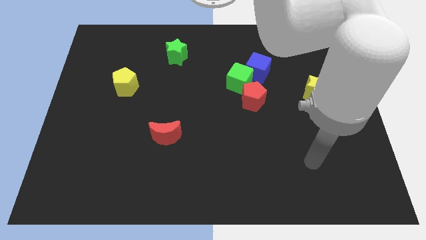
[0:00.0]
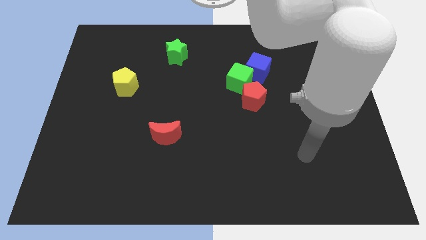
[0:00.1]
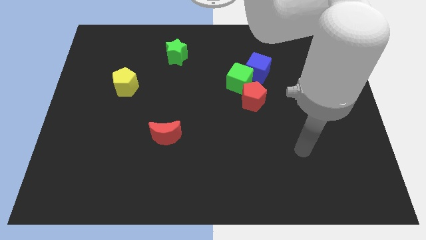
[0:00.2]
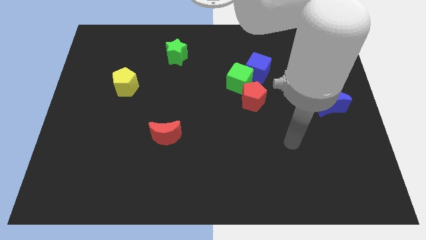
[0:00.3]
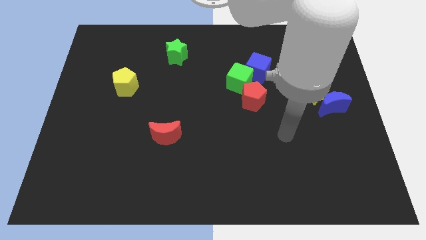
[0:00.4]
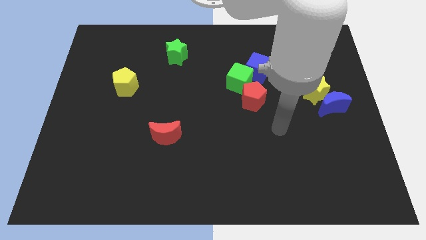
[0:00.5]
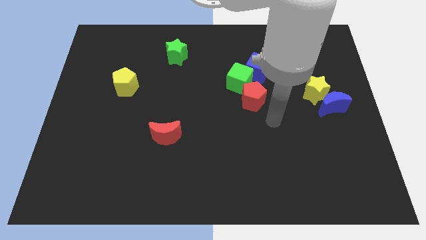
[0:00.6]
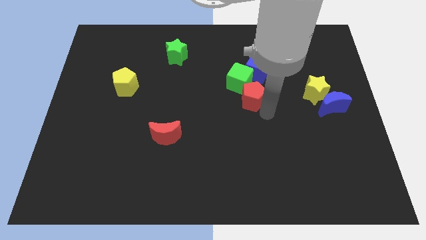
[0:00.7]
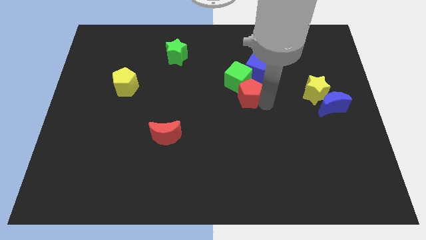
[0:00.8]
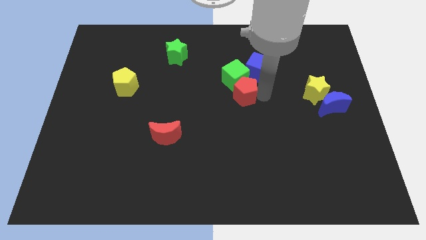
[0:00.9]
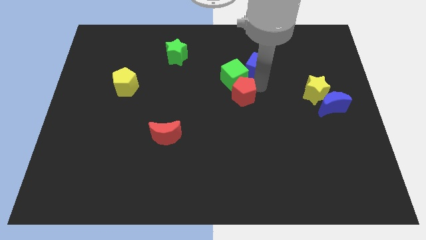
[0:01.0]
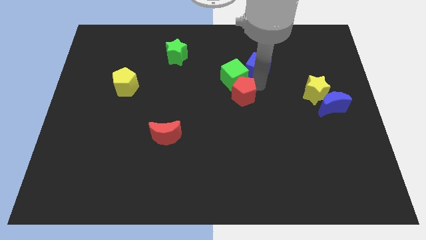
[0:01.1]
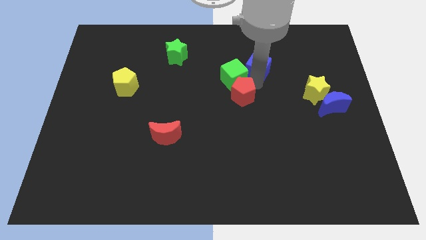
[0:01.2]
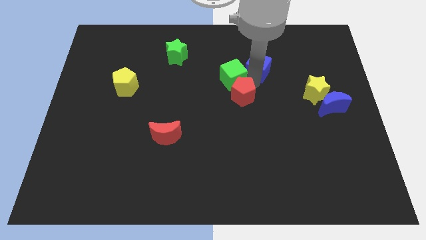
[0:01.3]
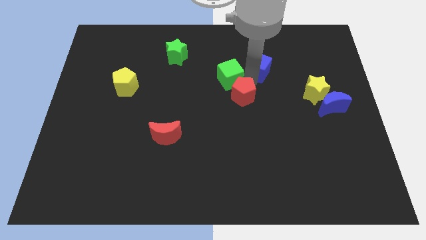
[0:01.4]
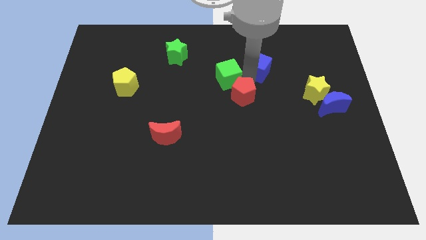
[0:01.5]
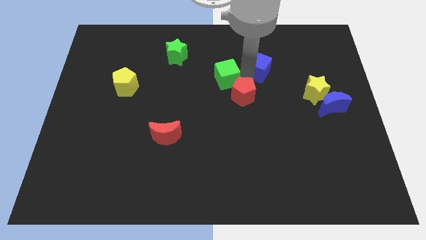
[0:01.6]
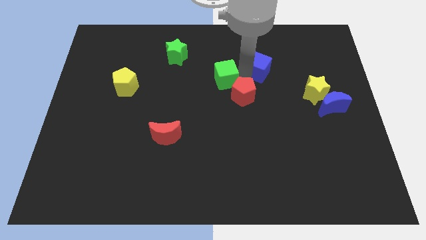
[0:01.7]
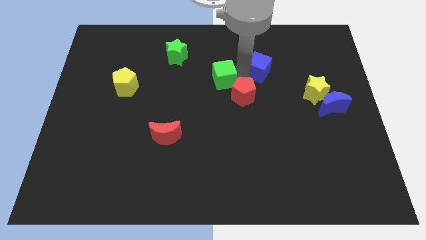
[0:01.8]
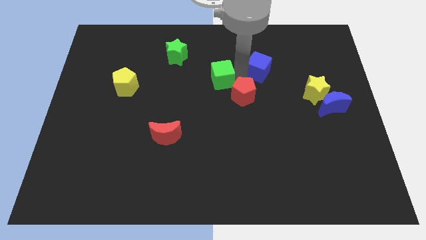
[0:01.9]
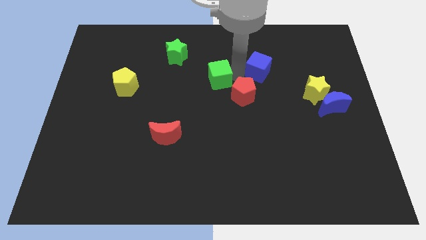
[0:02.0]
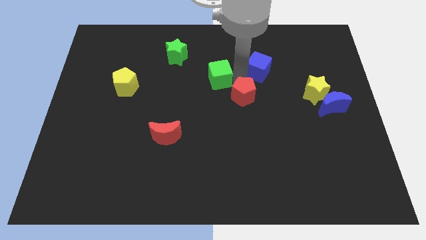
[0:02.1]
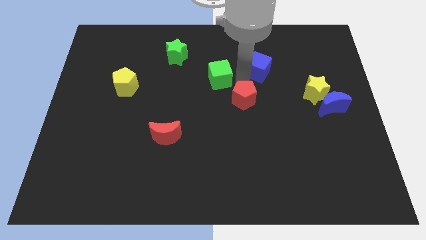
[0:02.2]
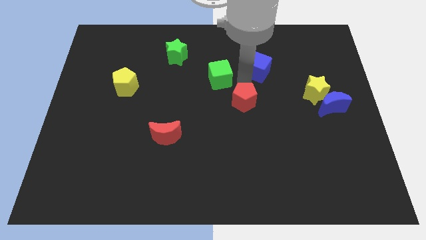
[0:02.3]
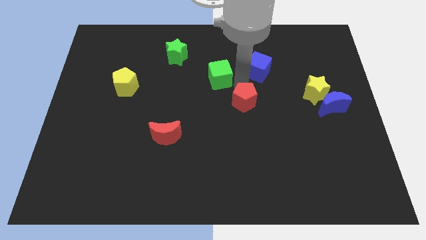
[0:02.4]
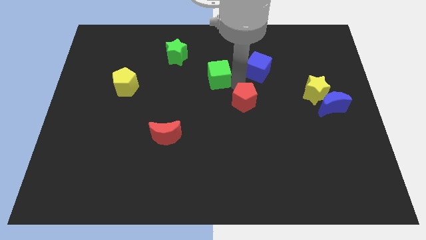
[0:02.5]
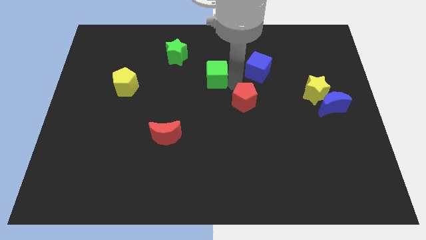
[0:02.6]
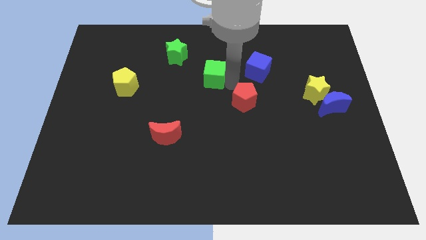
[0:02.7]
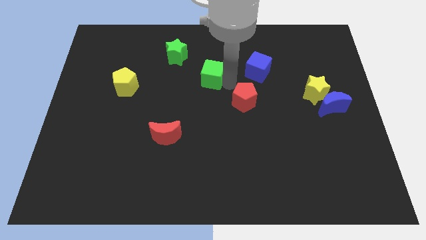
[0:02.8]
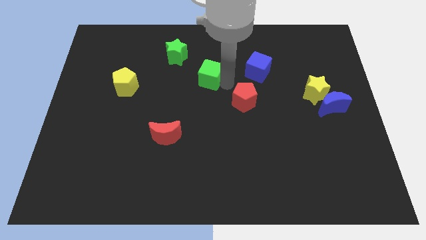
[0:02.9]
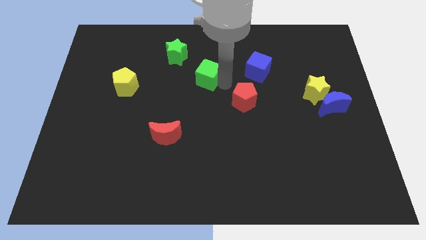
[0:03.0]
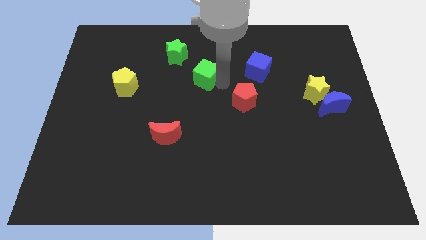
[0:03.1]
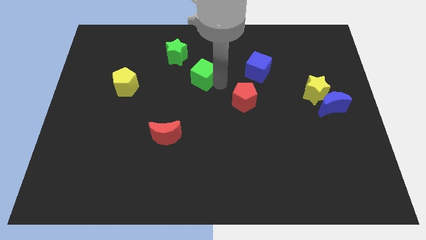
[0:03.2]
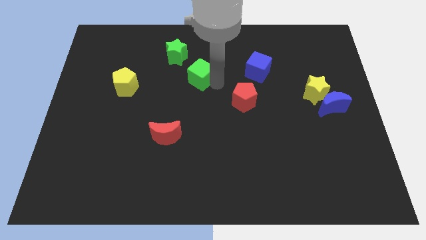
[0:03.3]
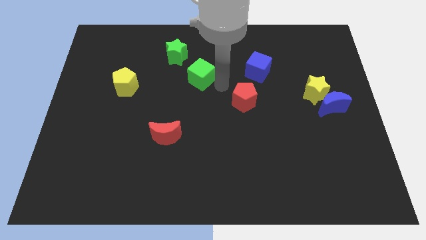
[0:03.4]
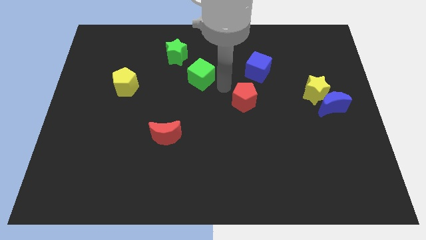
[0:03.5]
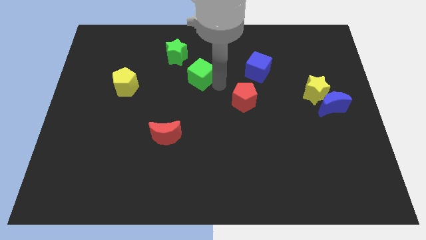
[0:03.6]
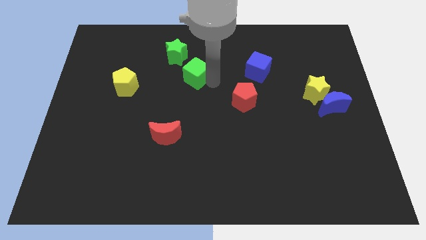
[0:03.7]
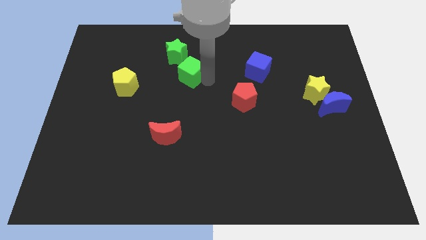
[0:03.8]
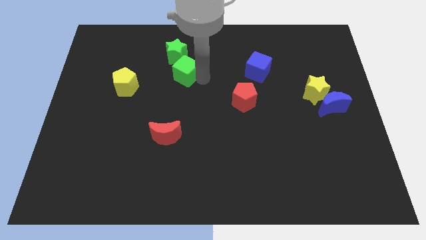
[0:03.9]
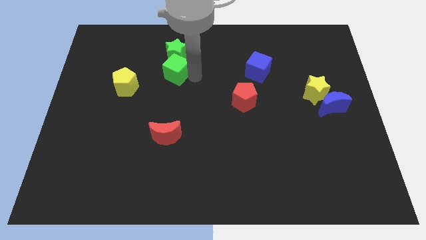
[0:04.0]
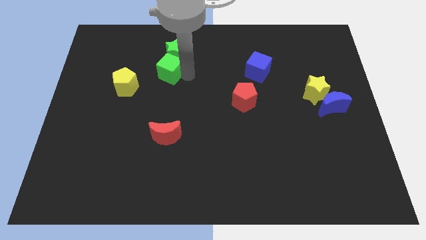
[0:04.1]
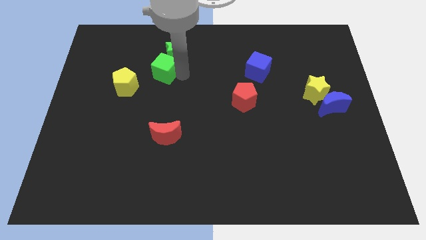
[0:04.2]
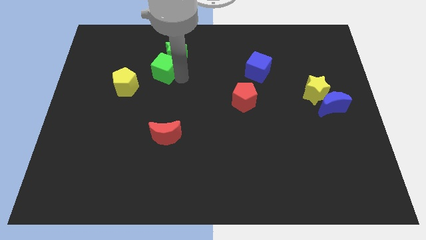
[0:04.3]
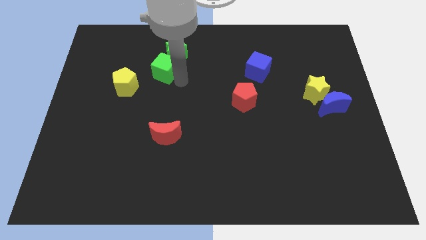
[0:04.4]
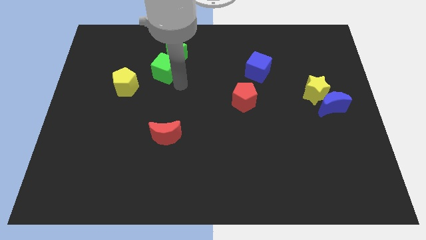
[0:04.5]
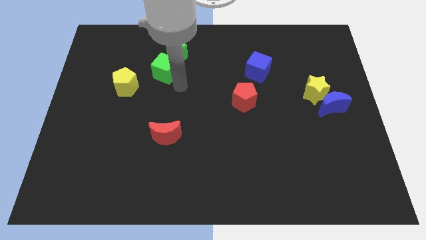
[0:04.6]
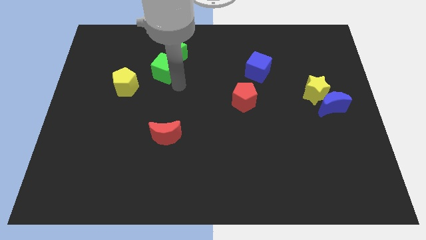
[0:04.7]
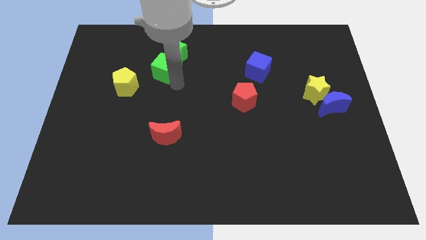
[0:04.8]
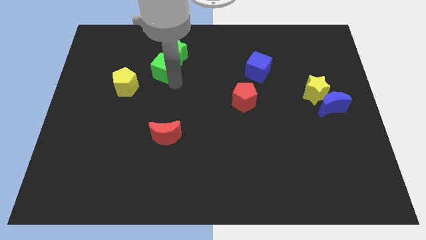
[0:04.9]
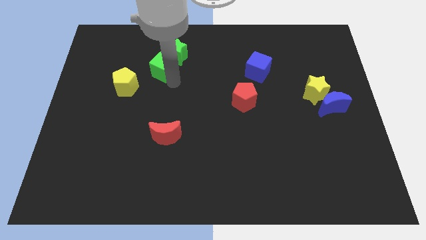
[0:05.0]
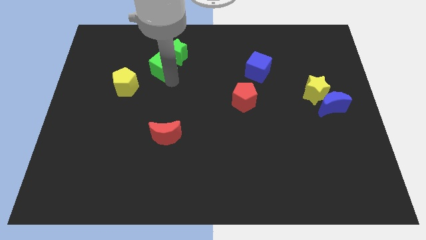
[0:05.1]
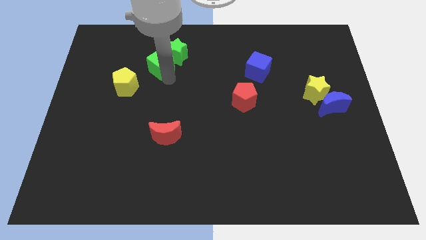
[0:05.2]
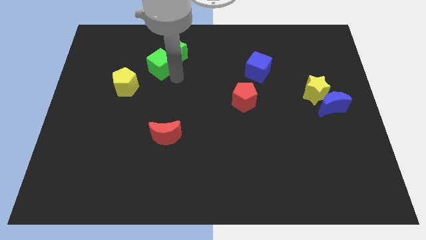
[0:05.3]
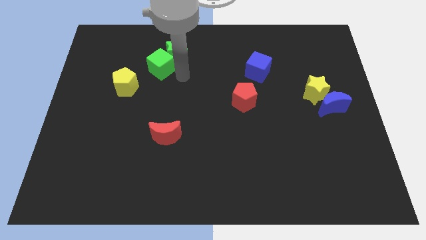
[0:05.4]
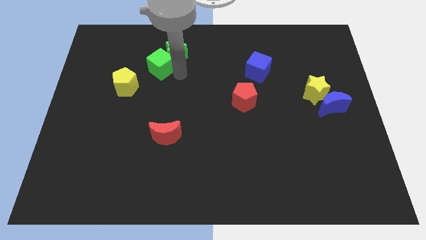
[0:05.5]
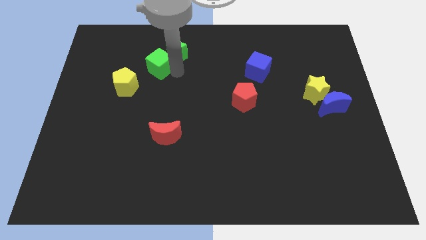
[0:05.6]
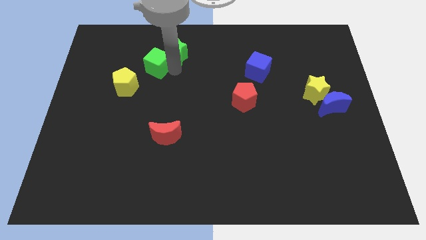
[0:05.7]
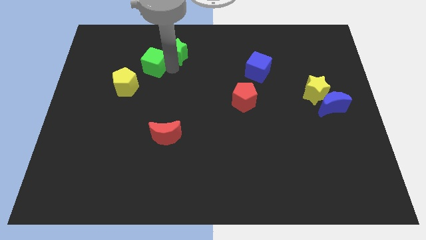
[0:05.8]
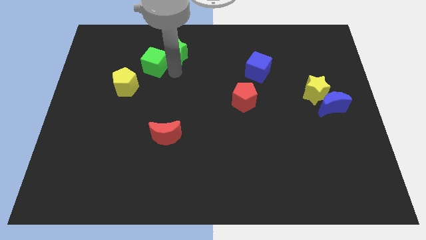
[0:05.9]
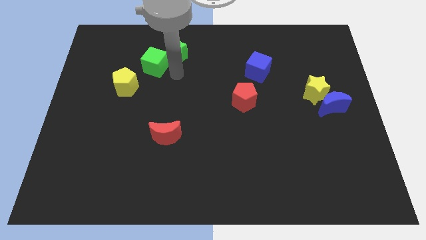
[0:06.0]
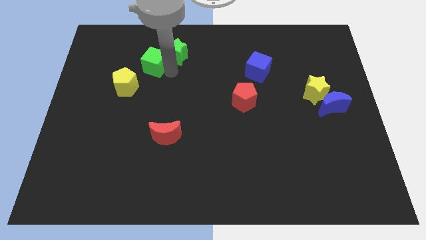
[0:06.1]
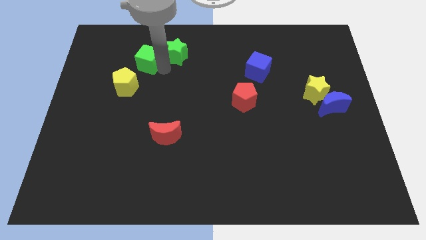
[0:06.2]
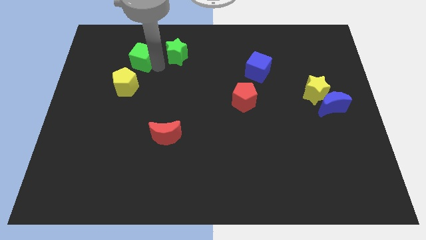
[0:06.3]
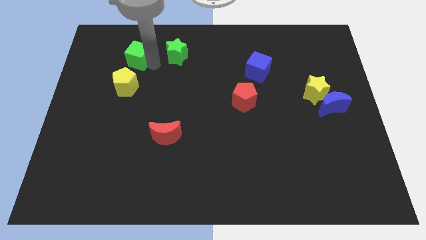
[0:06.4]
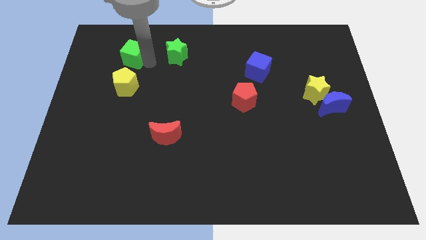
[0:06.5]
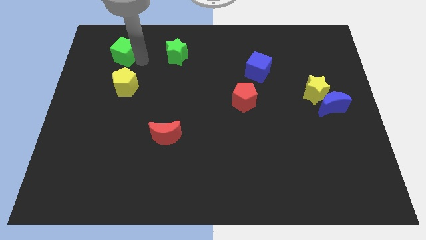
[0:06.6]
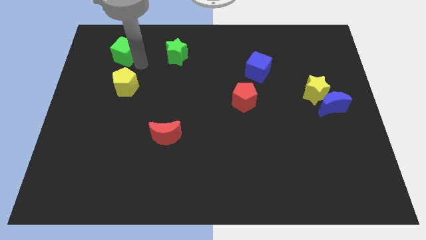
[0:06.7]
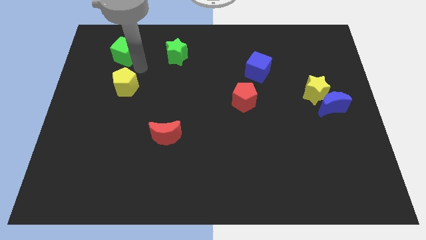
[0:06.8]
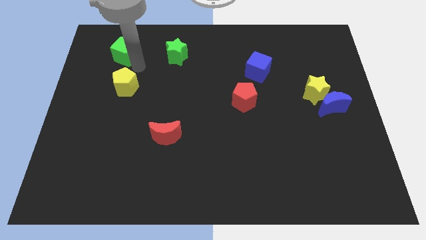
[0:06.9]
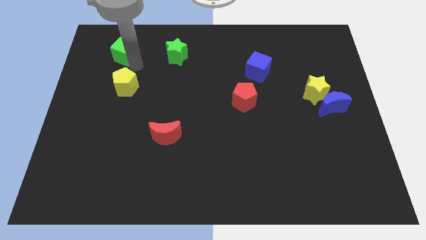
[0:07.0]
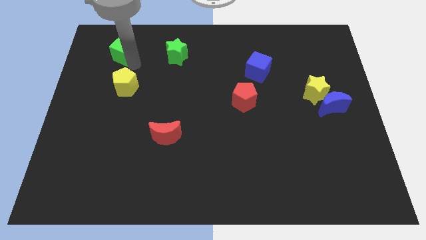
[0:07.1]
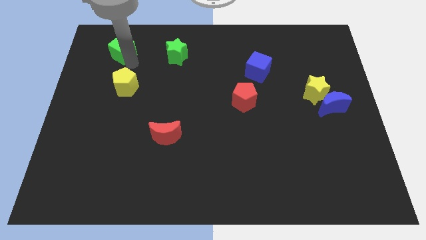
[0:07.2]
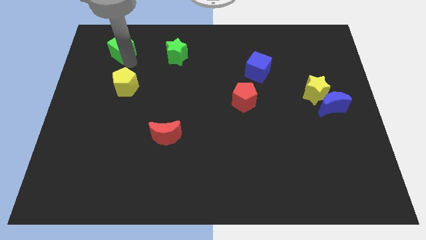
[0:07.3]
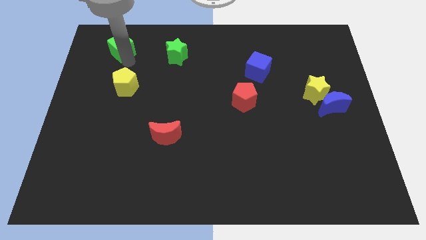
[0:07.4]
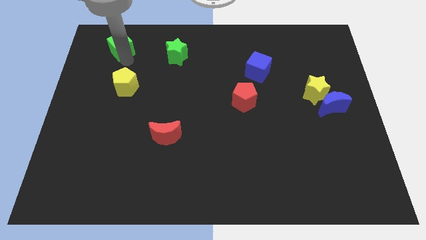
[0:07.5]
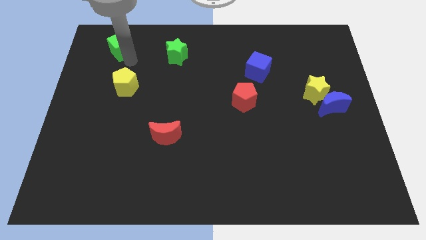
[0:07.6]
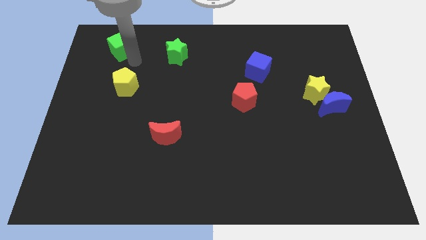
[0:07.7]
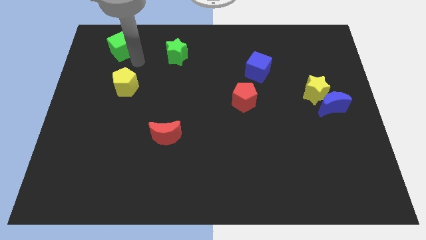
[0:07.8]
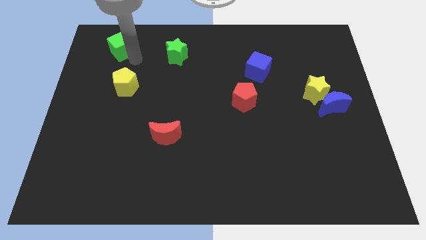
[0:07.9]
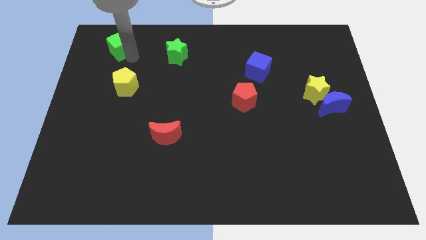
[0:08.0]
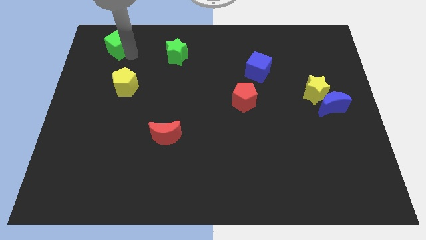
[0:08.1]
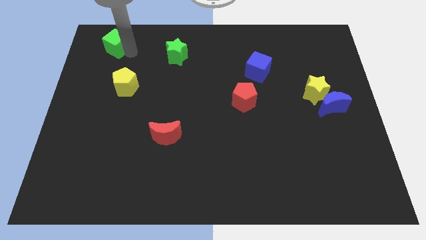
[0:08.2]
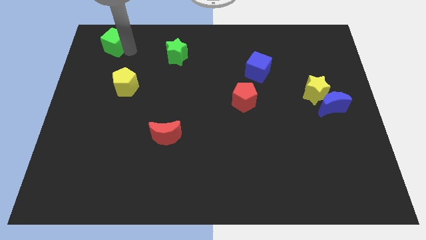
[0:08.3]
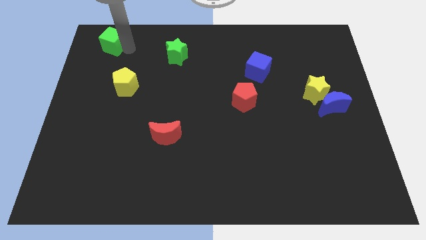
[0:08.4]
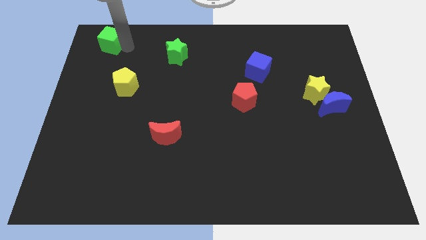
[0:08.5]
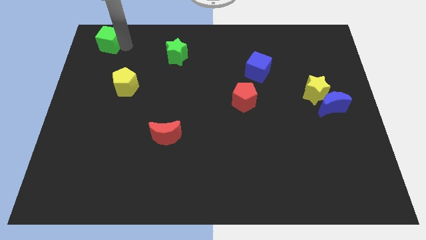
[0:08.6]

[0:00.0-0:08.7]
move the green cube to the top left
